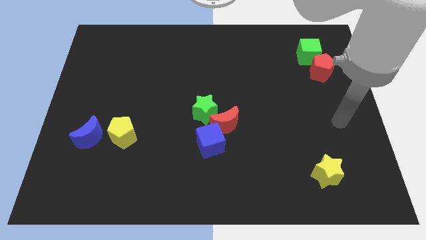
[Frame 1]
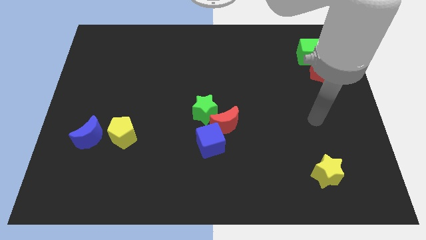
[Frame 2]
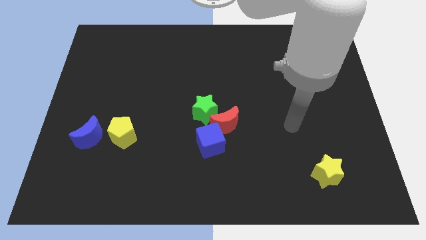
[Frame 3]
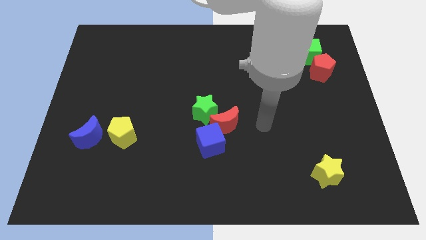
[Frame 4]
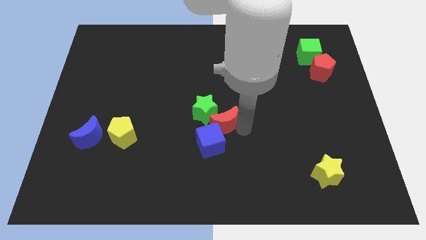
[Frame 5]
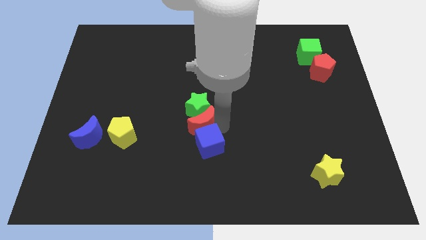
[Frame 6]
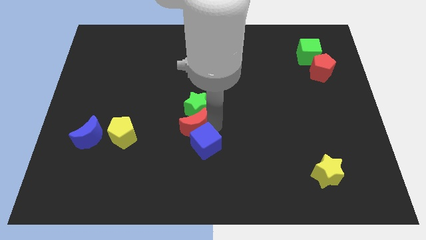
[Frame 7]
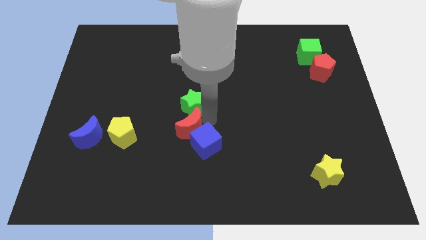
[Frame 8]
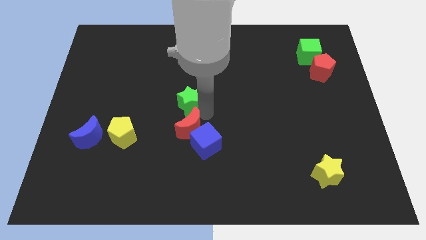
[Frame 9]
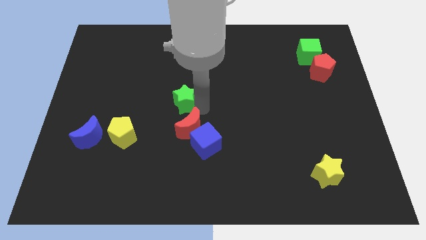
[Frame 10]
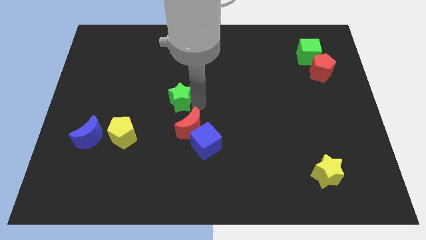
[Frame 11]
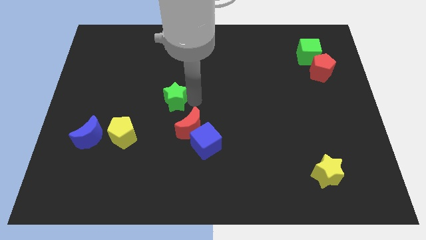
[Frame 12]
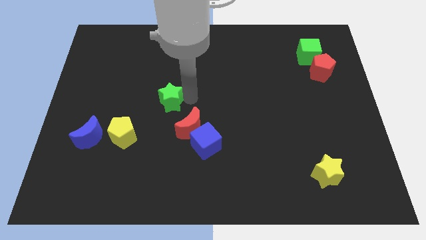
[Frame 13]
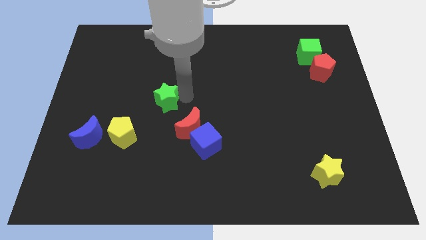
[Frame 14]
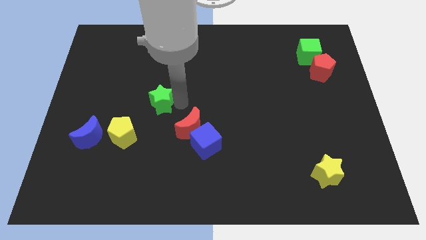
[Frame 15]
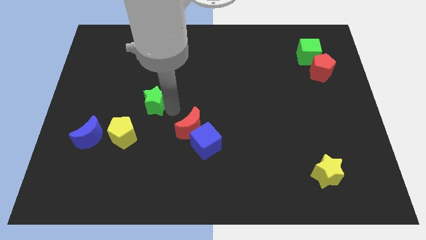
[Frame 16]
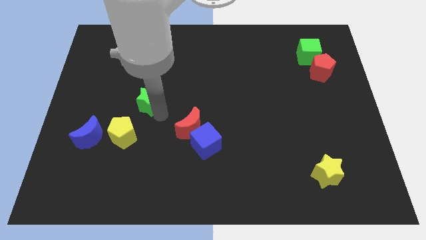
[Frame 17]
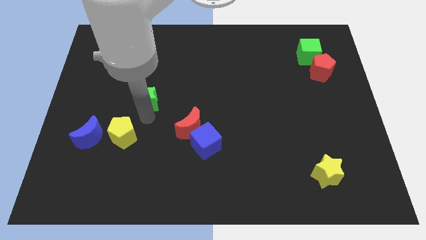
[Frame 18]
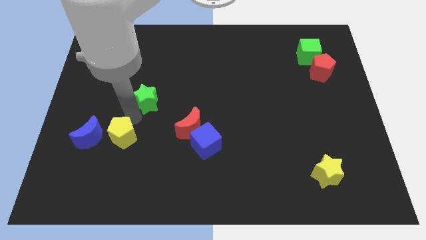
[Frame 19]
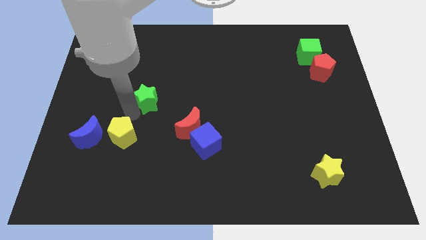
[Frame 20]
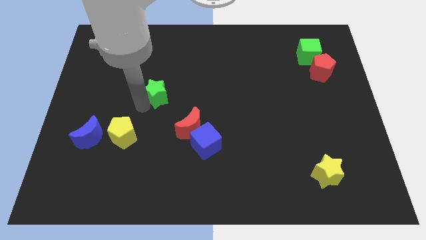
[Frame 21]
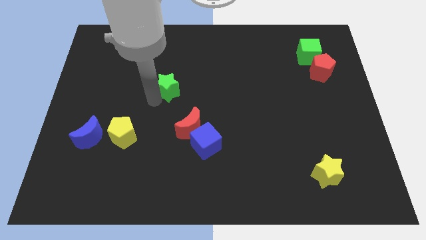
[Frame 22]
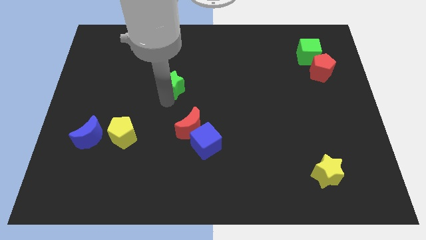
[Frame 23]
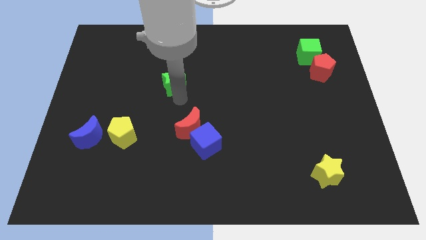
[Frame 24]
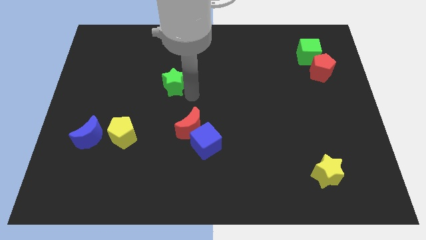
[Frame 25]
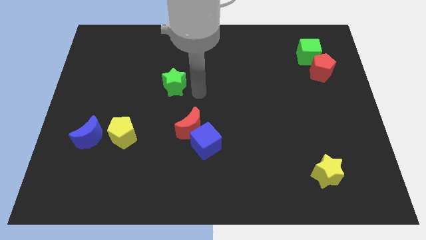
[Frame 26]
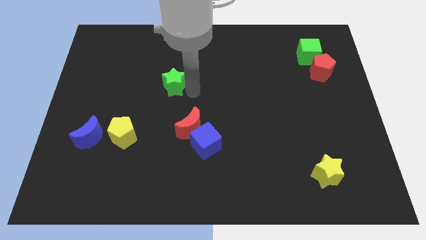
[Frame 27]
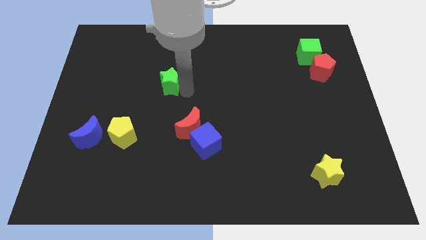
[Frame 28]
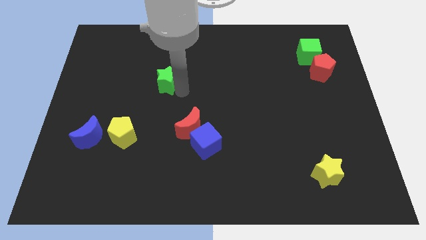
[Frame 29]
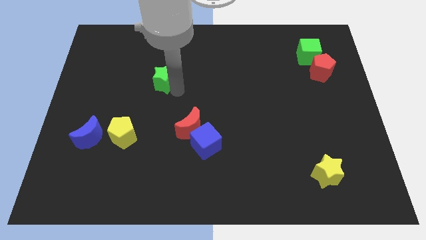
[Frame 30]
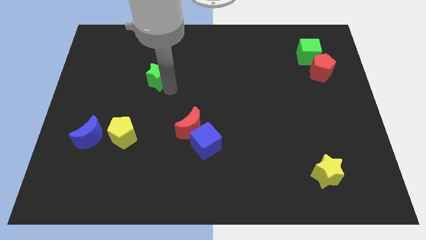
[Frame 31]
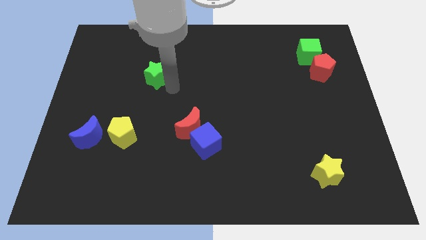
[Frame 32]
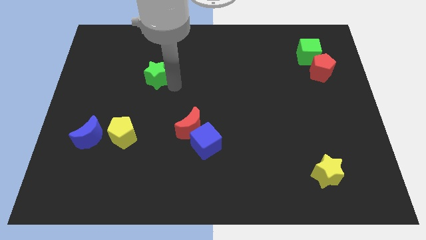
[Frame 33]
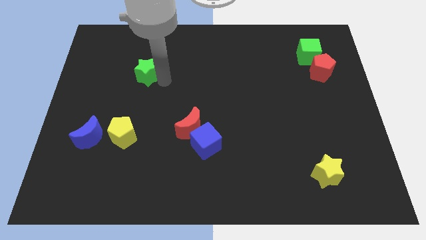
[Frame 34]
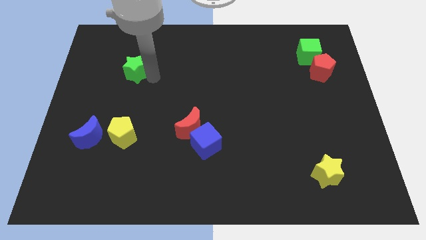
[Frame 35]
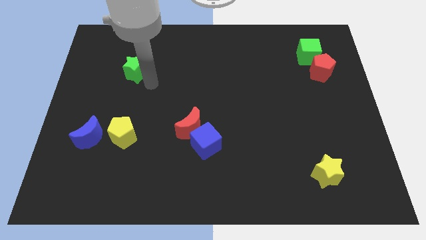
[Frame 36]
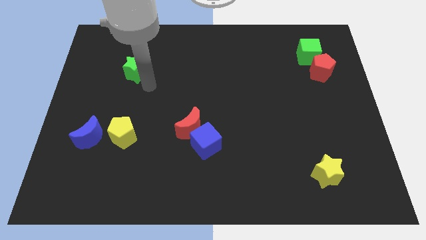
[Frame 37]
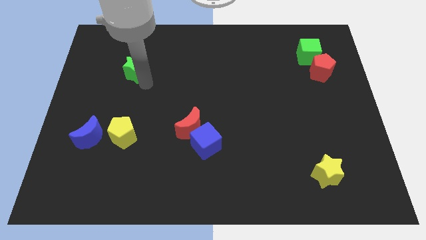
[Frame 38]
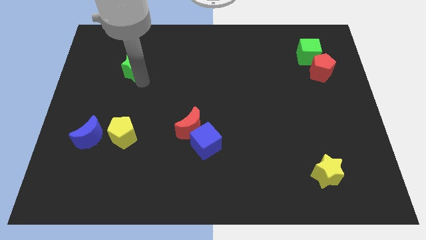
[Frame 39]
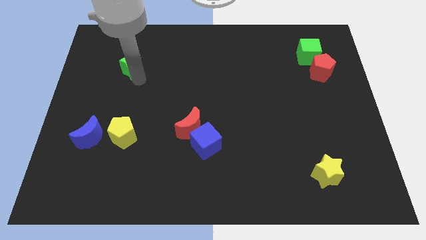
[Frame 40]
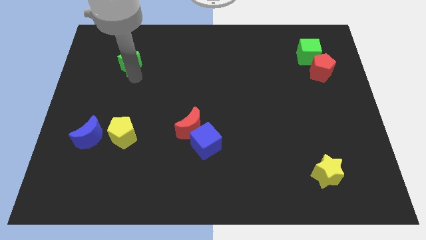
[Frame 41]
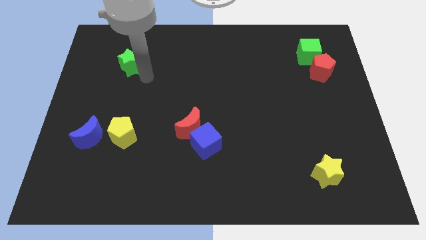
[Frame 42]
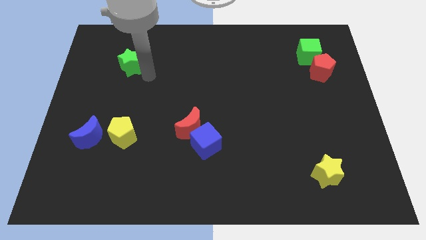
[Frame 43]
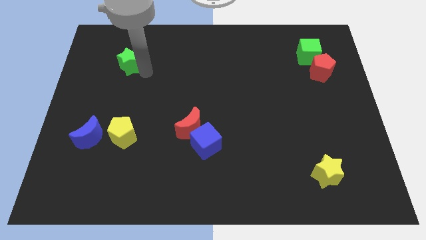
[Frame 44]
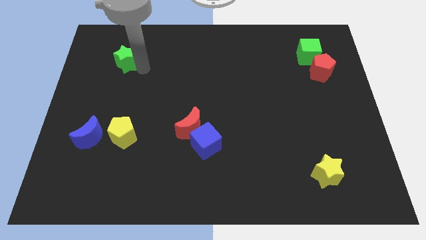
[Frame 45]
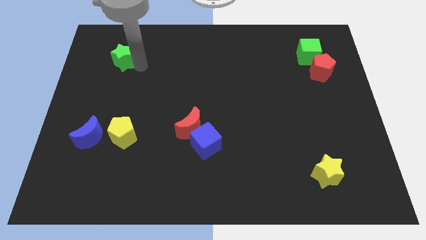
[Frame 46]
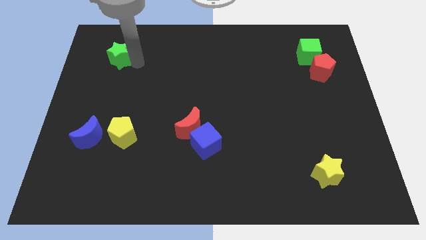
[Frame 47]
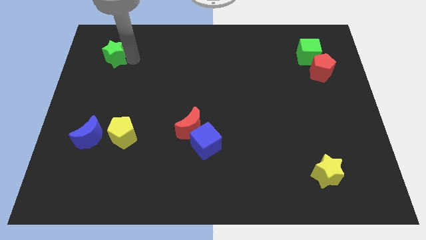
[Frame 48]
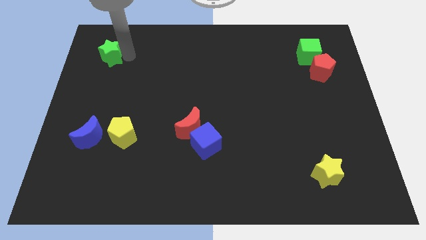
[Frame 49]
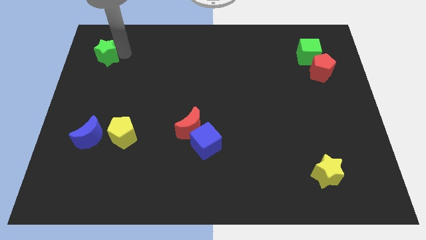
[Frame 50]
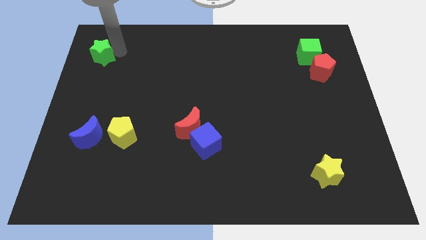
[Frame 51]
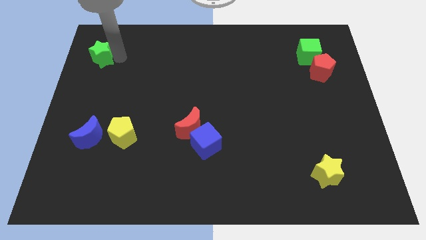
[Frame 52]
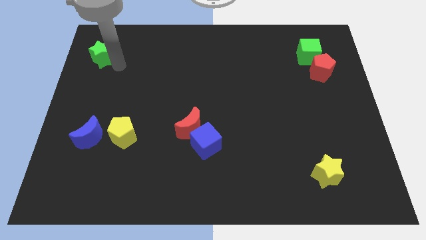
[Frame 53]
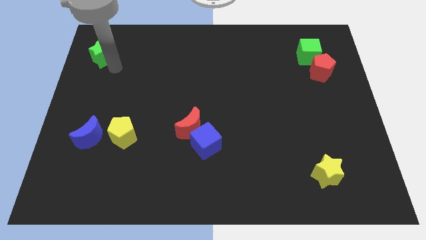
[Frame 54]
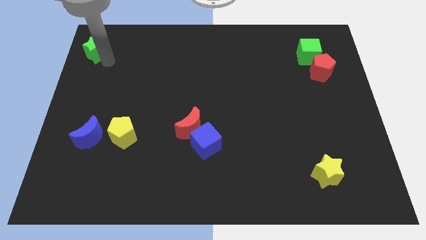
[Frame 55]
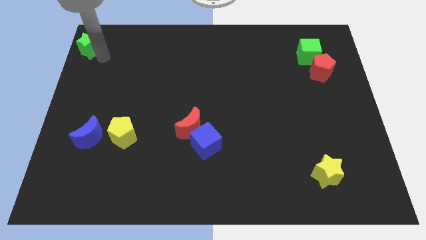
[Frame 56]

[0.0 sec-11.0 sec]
move the green star to the top left

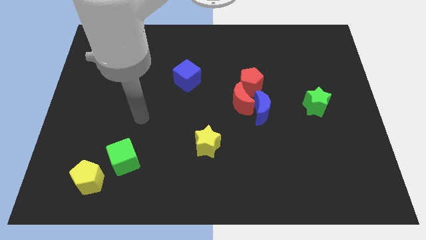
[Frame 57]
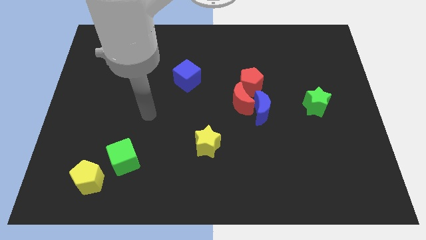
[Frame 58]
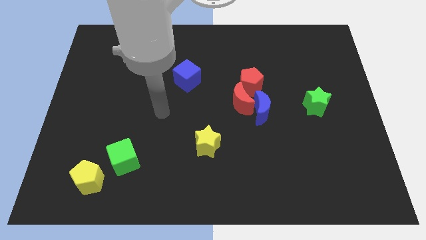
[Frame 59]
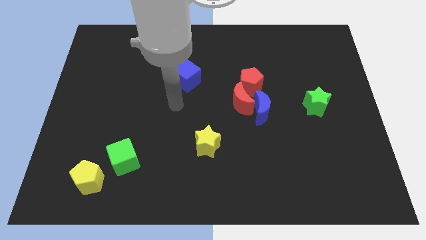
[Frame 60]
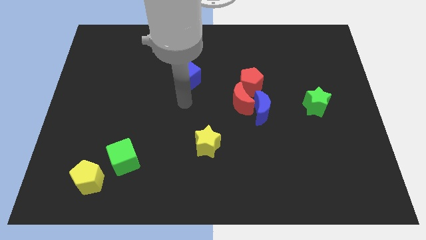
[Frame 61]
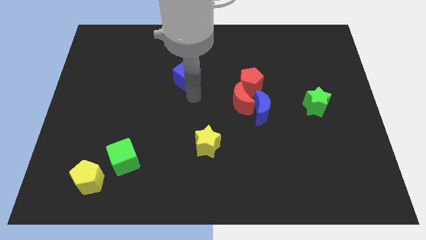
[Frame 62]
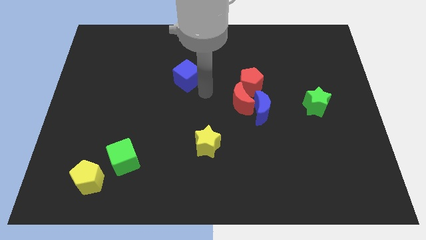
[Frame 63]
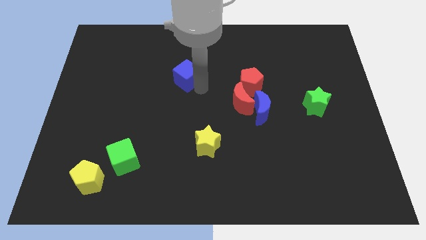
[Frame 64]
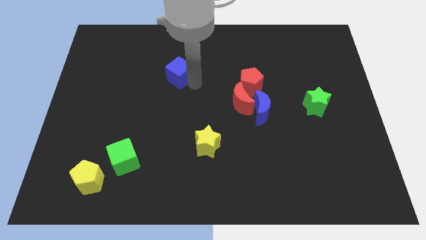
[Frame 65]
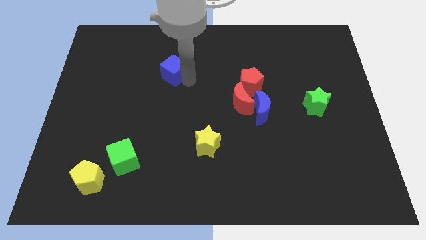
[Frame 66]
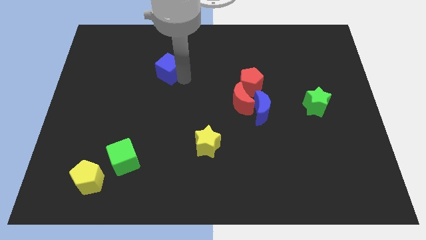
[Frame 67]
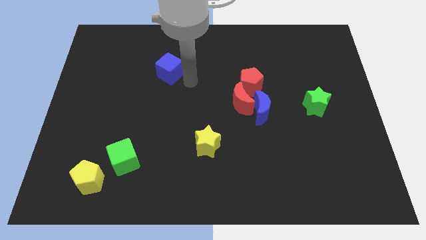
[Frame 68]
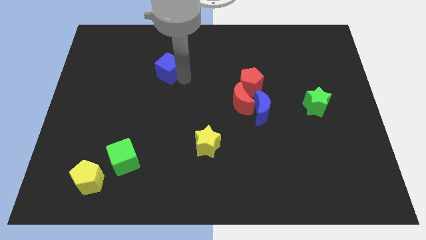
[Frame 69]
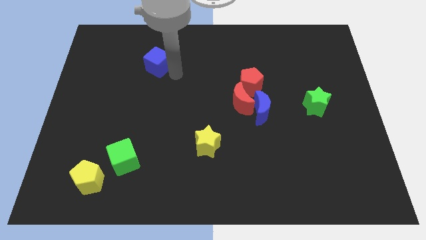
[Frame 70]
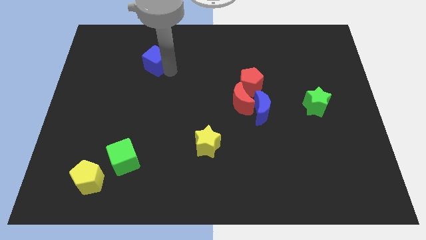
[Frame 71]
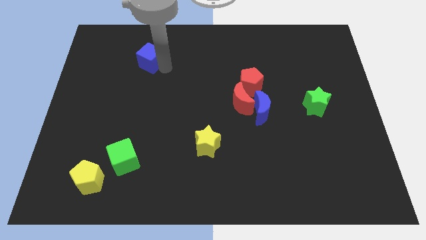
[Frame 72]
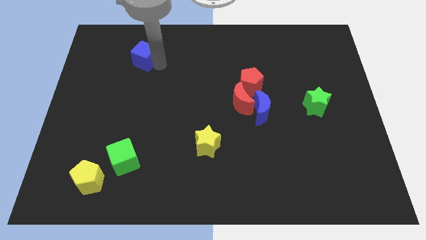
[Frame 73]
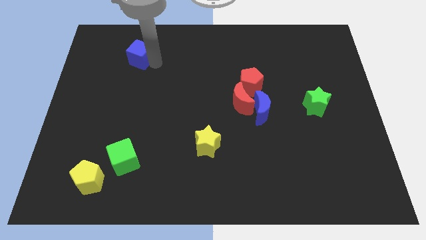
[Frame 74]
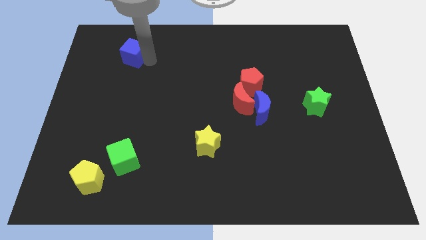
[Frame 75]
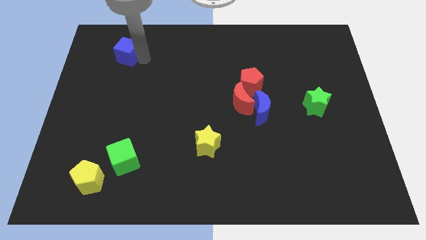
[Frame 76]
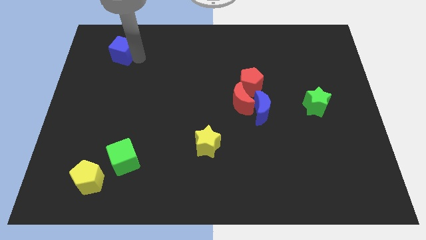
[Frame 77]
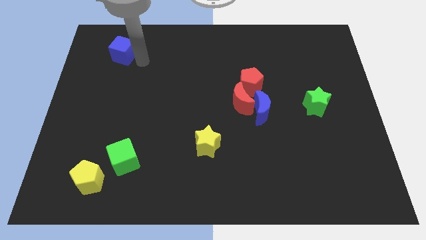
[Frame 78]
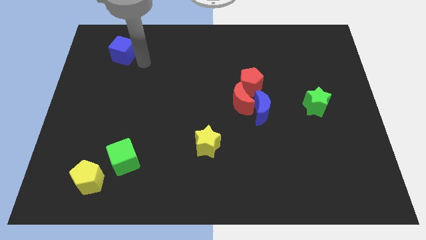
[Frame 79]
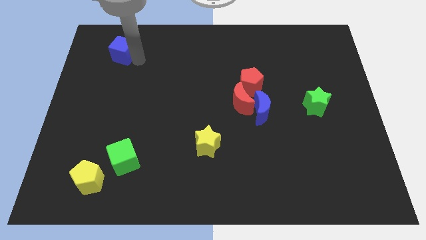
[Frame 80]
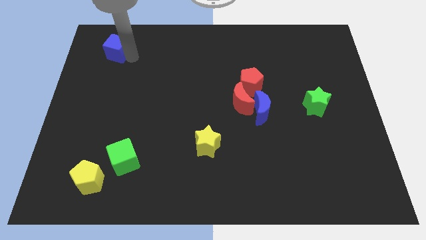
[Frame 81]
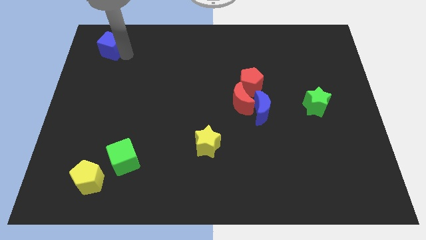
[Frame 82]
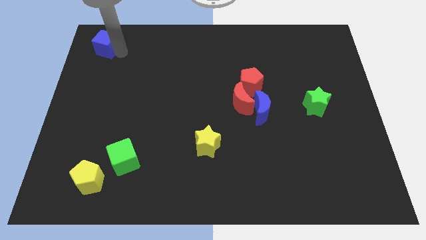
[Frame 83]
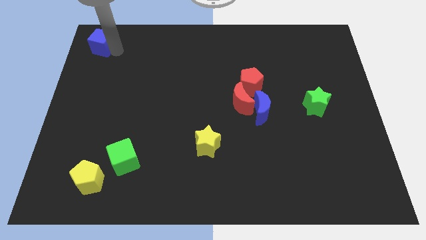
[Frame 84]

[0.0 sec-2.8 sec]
slide the blue cube to the top left of the board
